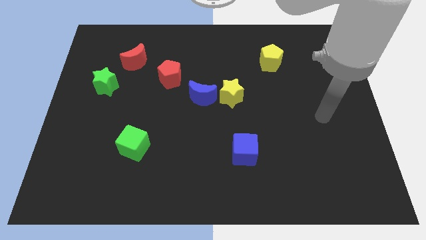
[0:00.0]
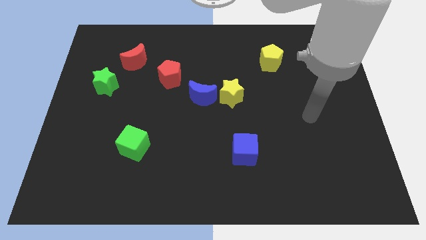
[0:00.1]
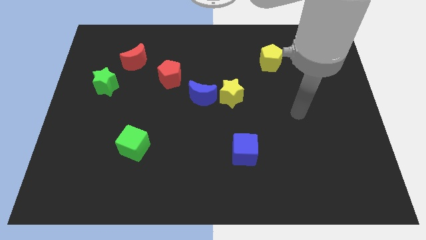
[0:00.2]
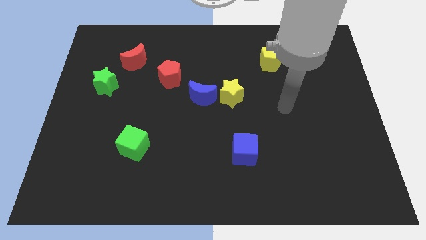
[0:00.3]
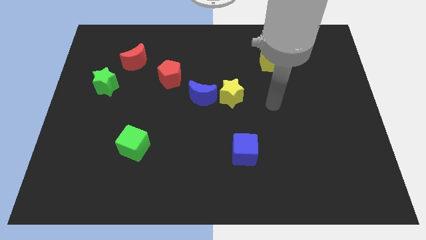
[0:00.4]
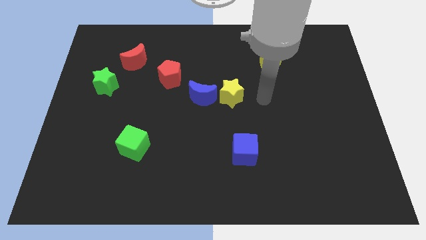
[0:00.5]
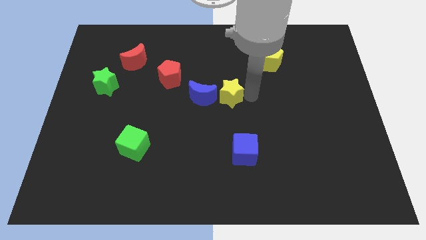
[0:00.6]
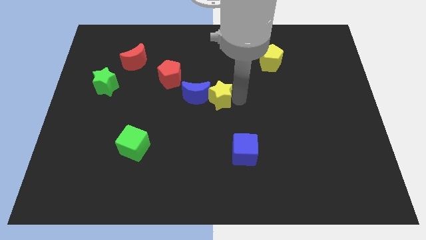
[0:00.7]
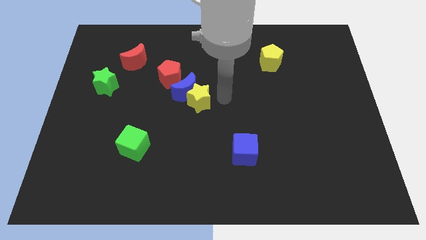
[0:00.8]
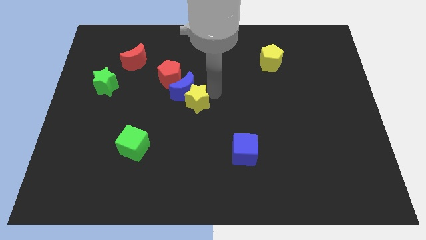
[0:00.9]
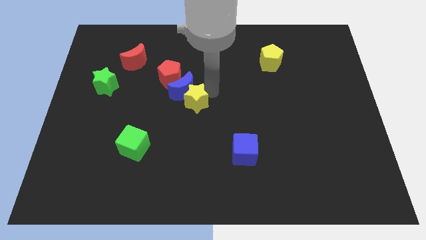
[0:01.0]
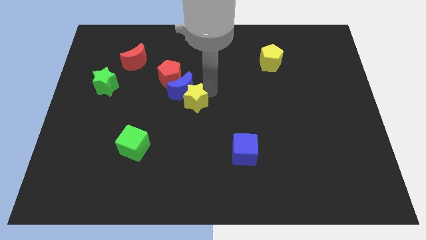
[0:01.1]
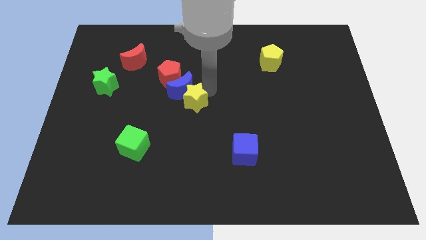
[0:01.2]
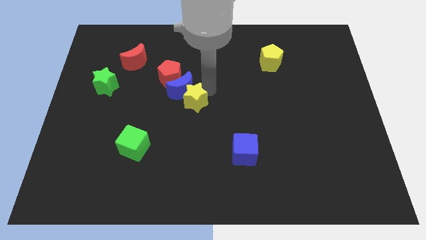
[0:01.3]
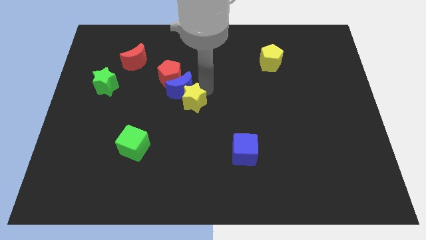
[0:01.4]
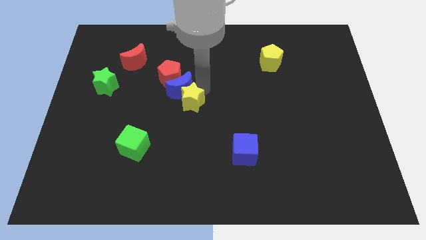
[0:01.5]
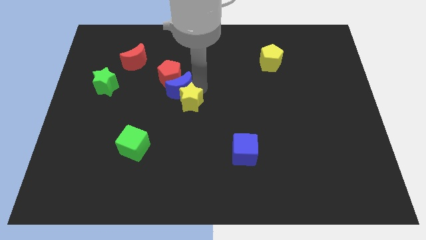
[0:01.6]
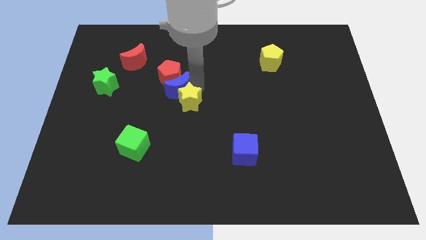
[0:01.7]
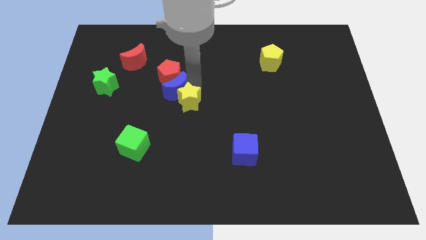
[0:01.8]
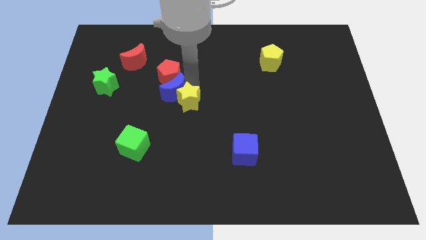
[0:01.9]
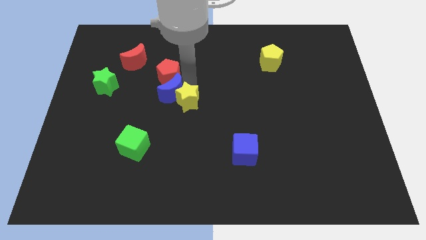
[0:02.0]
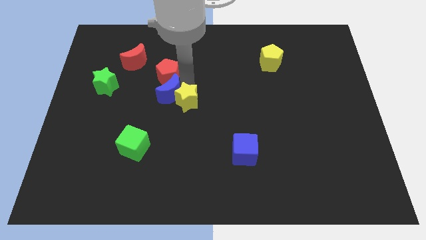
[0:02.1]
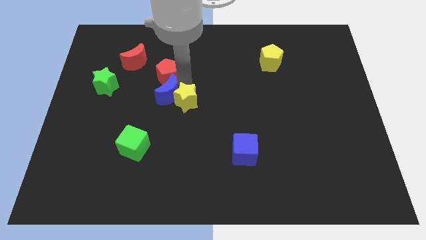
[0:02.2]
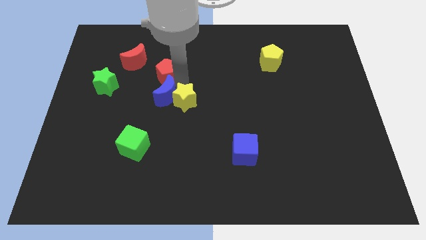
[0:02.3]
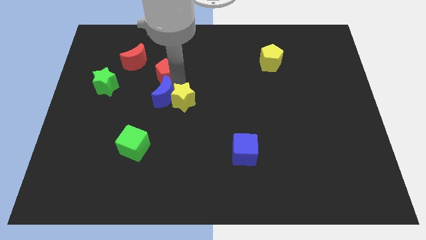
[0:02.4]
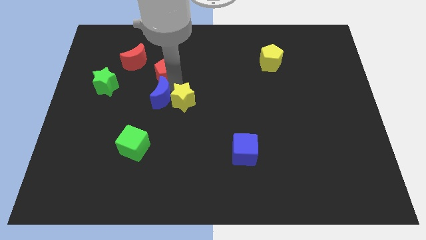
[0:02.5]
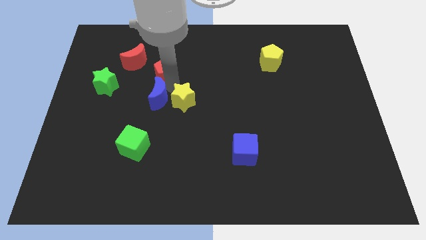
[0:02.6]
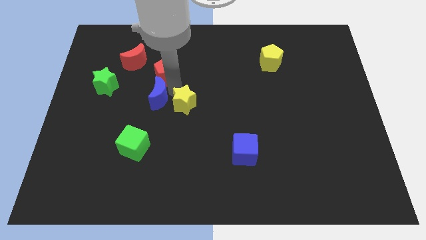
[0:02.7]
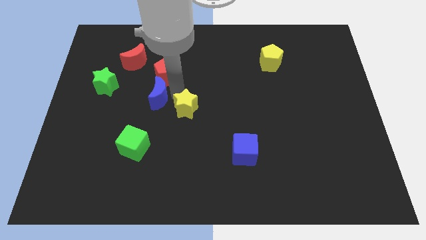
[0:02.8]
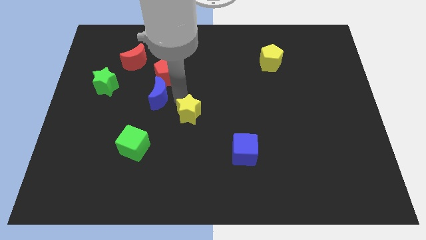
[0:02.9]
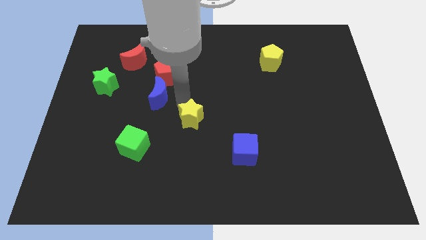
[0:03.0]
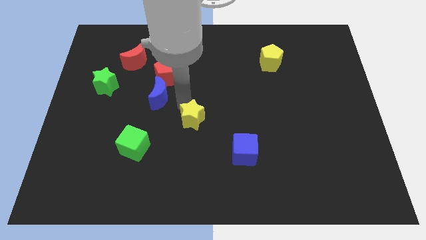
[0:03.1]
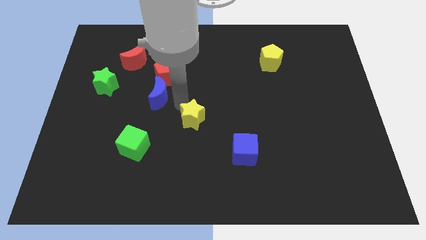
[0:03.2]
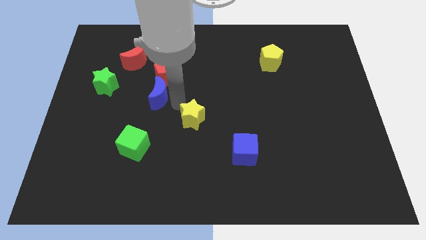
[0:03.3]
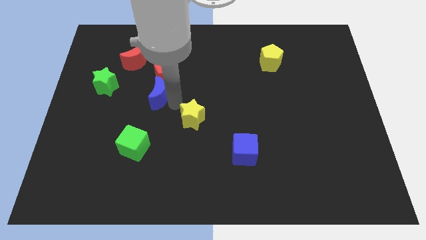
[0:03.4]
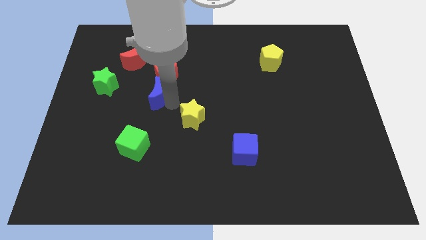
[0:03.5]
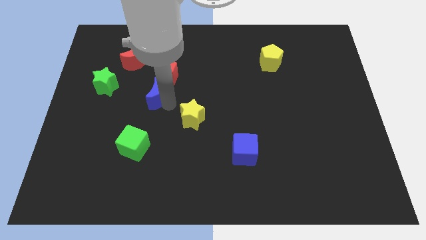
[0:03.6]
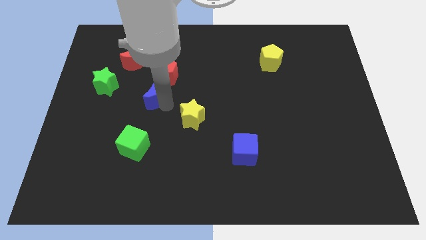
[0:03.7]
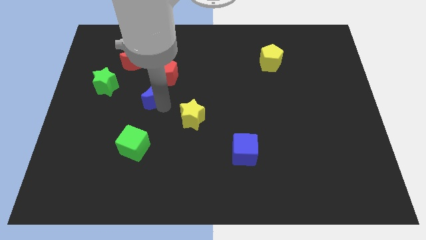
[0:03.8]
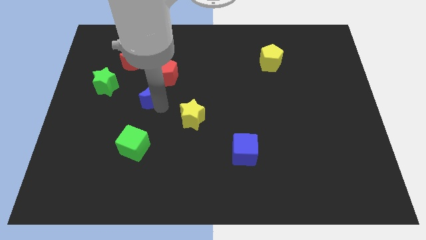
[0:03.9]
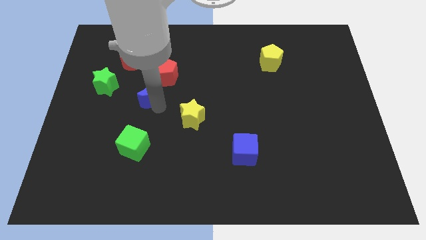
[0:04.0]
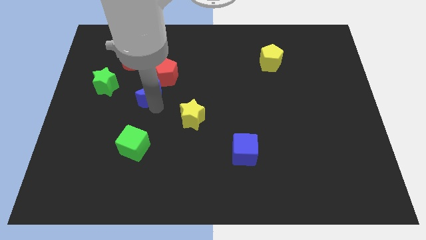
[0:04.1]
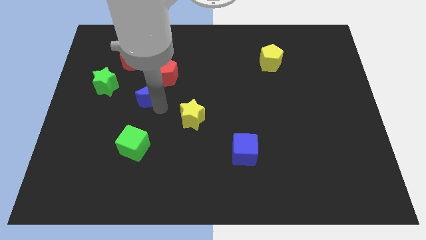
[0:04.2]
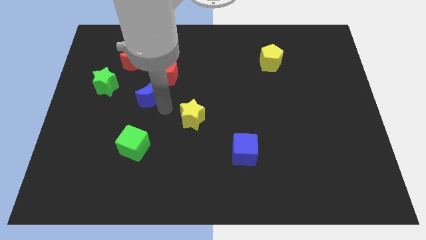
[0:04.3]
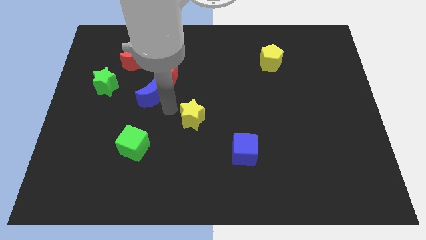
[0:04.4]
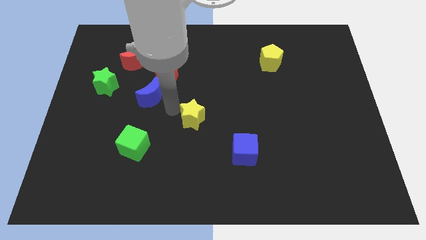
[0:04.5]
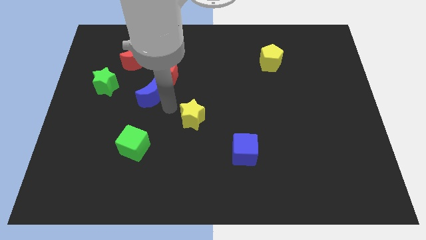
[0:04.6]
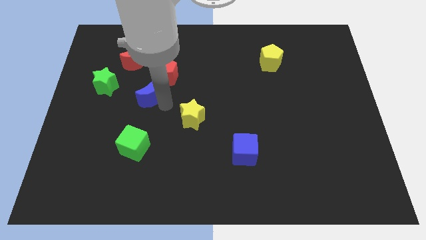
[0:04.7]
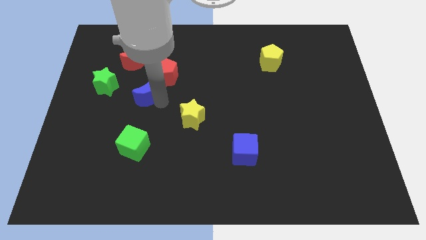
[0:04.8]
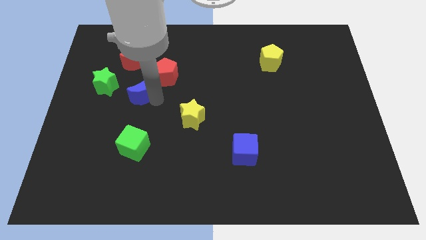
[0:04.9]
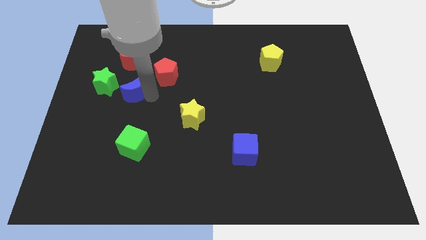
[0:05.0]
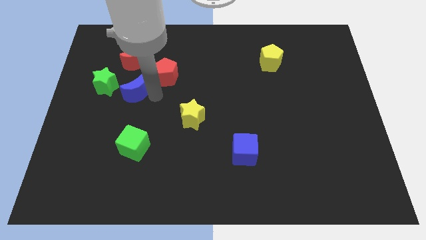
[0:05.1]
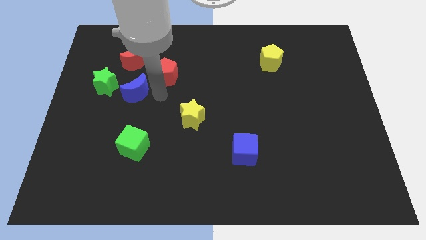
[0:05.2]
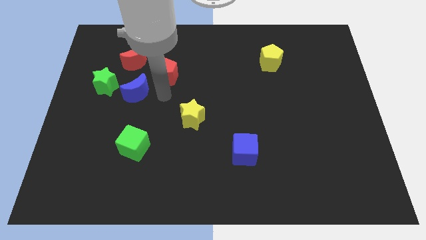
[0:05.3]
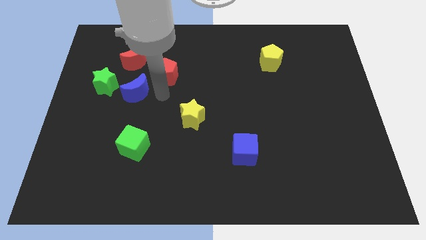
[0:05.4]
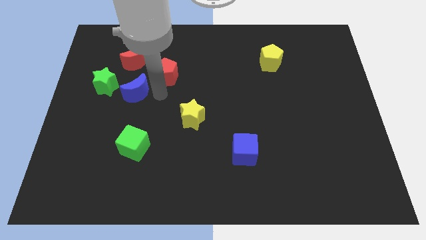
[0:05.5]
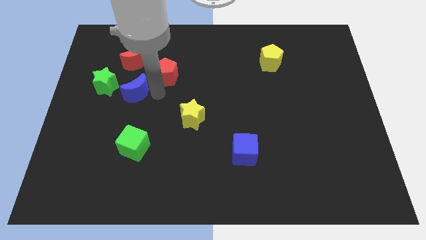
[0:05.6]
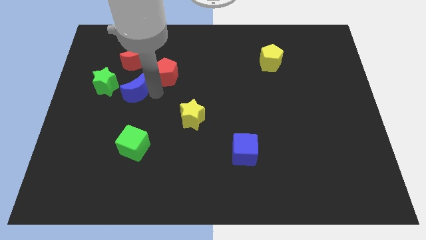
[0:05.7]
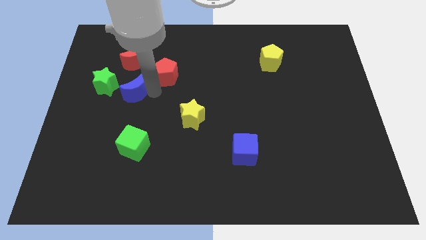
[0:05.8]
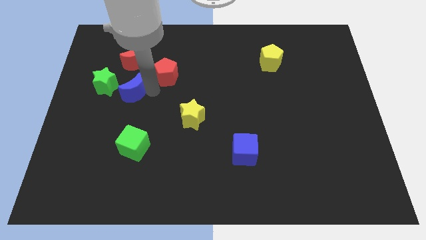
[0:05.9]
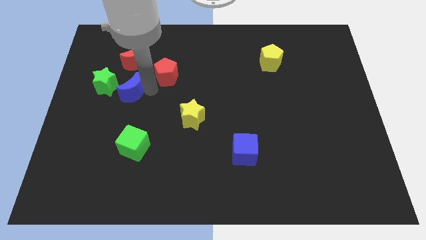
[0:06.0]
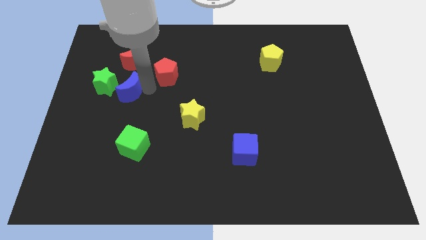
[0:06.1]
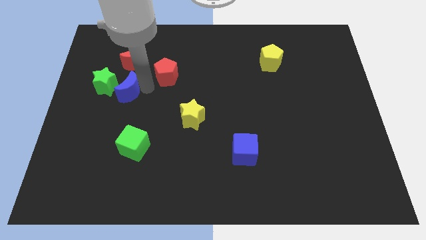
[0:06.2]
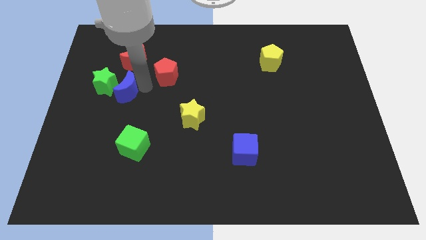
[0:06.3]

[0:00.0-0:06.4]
put the blue moon towards the green star

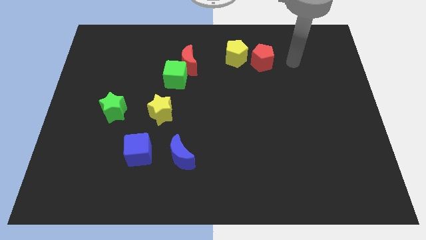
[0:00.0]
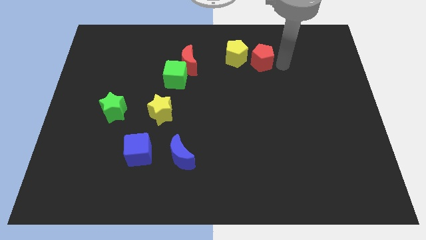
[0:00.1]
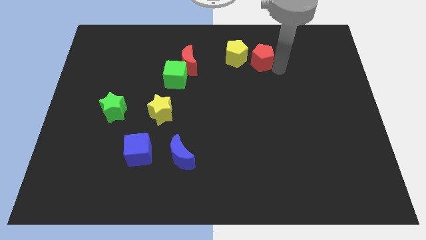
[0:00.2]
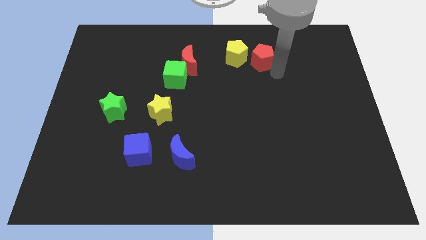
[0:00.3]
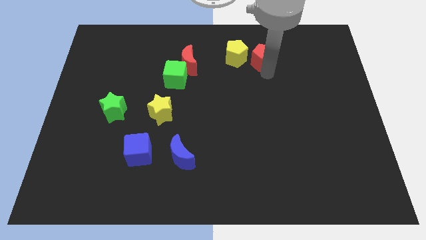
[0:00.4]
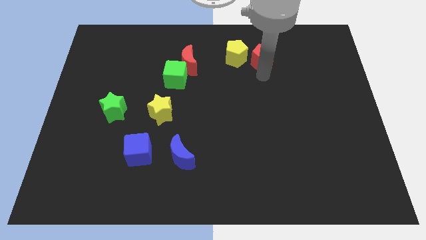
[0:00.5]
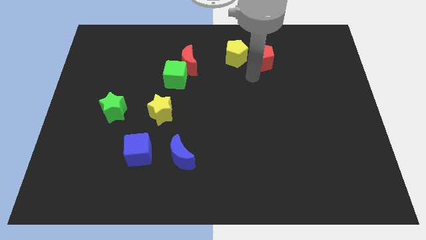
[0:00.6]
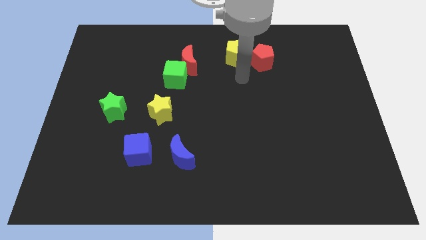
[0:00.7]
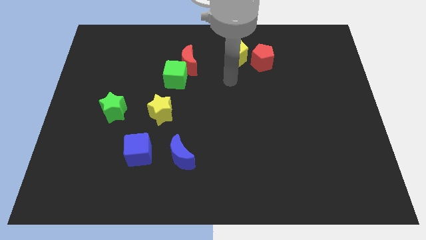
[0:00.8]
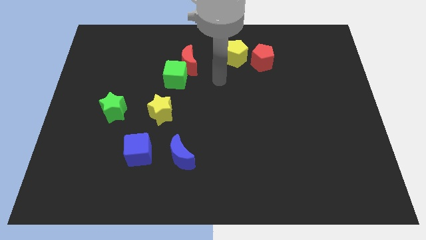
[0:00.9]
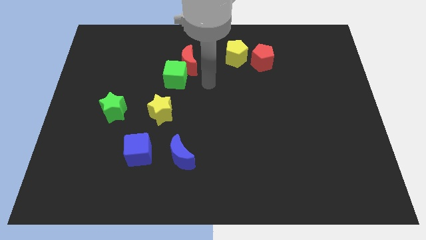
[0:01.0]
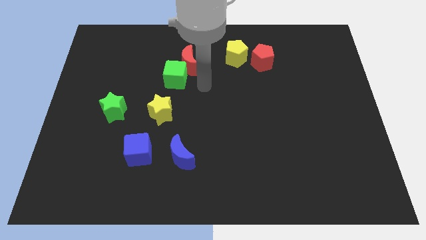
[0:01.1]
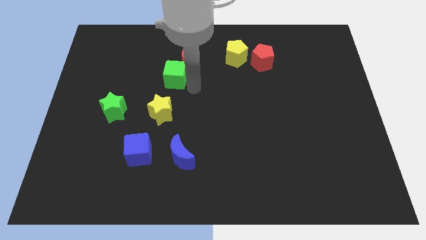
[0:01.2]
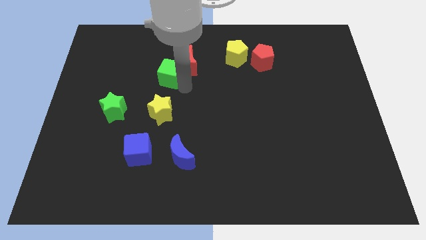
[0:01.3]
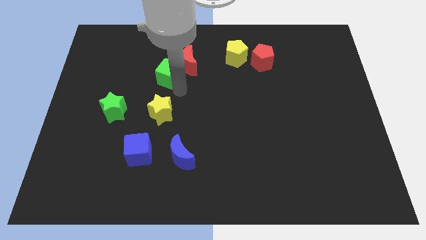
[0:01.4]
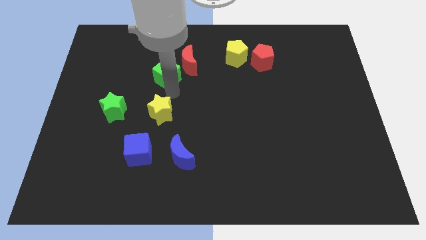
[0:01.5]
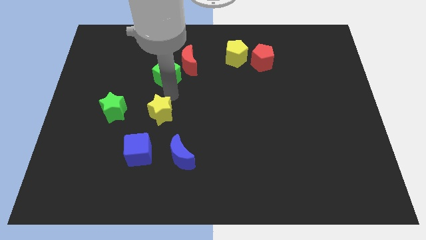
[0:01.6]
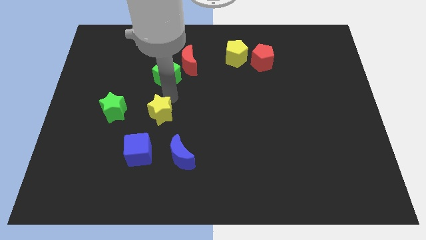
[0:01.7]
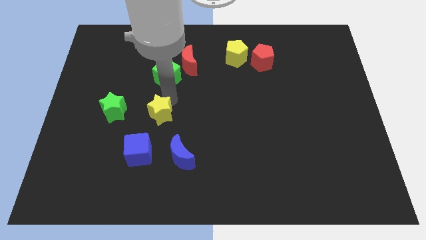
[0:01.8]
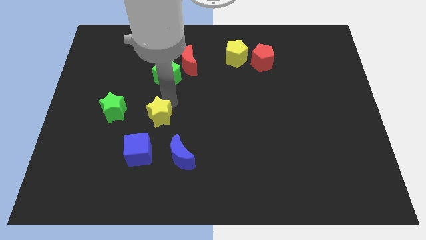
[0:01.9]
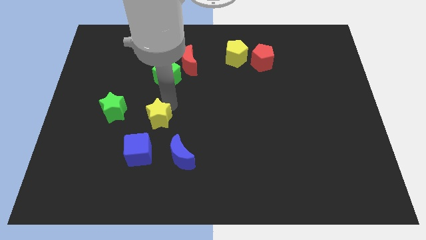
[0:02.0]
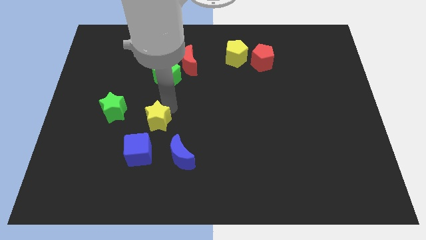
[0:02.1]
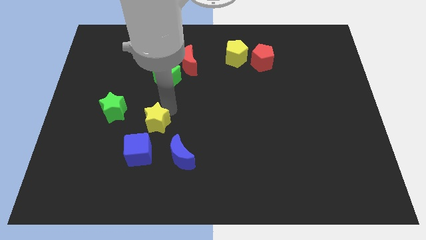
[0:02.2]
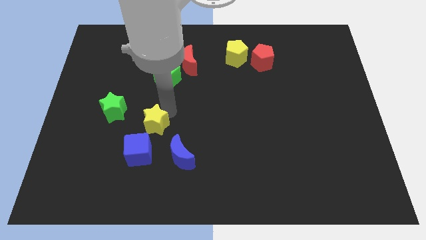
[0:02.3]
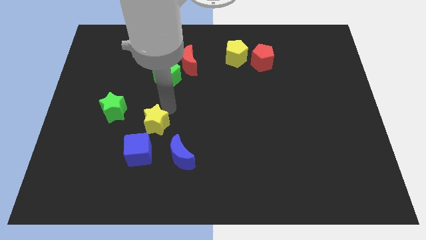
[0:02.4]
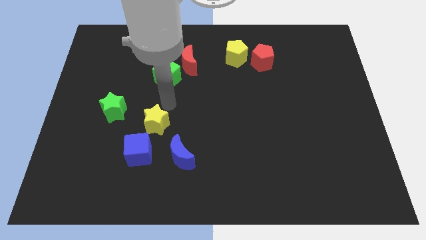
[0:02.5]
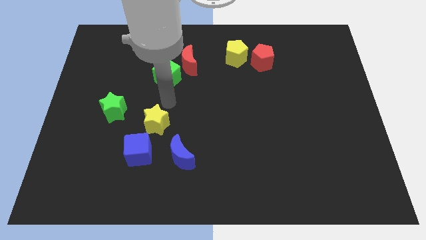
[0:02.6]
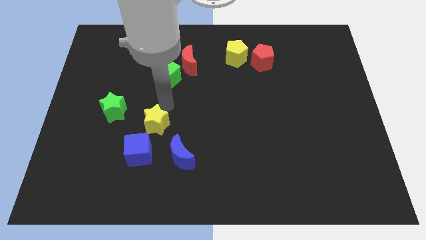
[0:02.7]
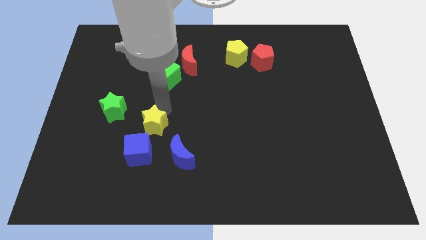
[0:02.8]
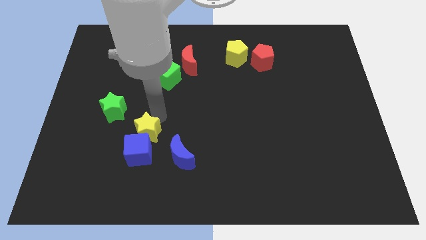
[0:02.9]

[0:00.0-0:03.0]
slide the yellow star to the blue cube
